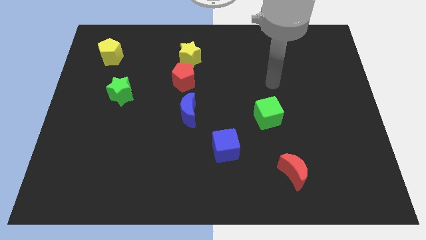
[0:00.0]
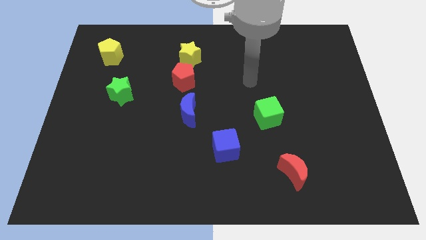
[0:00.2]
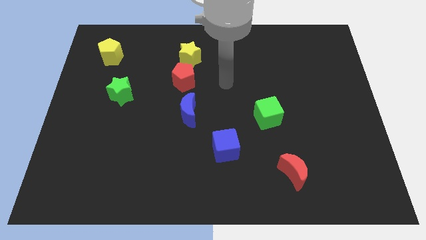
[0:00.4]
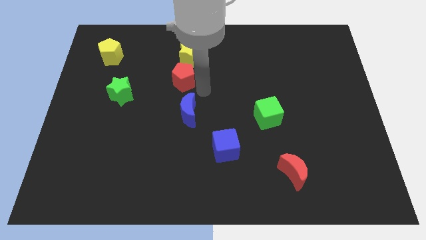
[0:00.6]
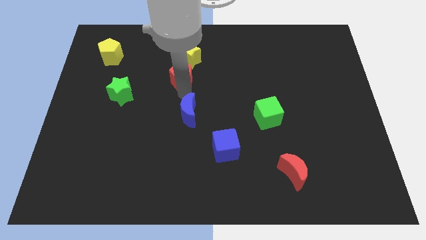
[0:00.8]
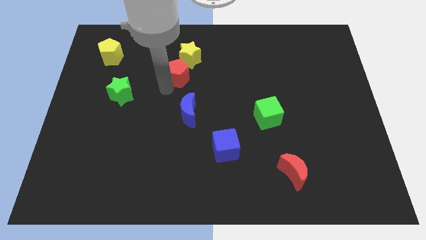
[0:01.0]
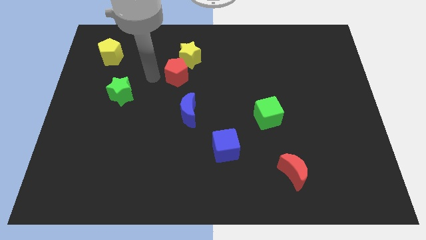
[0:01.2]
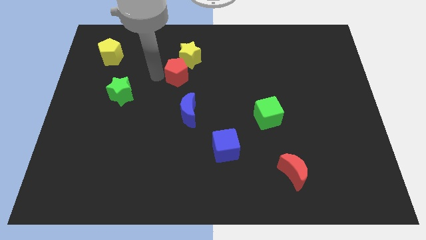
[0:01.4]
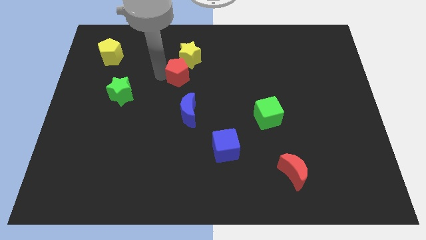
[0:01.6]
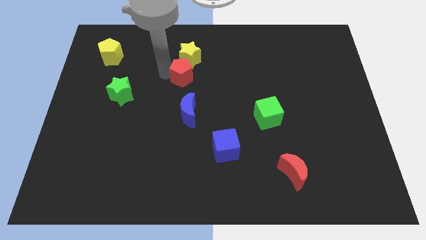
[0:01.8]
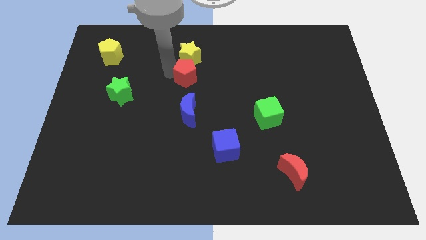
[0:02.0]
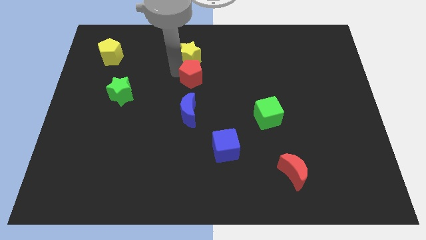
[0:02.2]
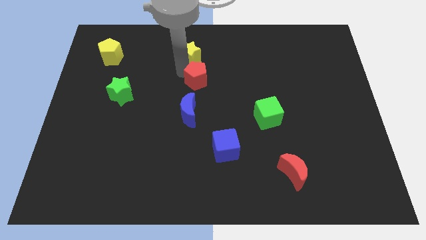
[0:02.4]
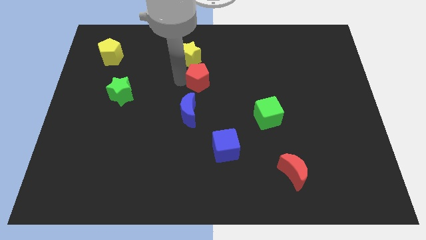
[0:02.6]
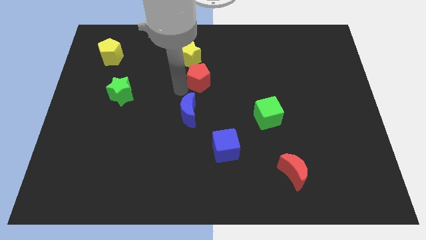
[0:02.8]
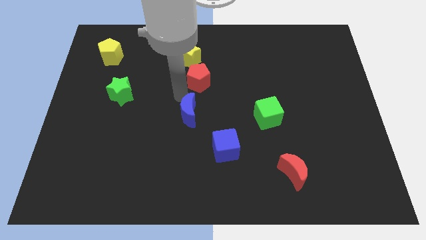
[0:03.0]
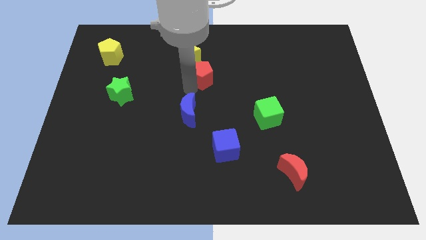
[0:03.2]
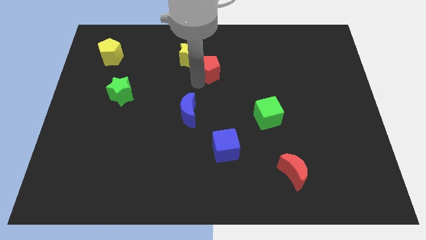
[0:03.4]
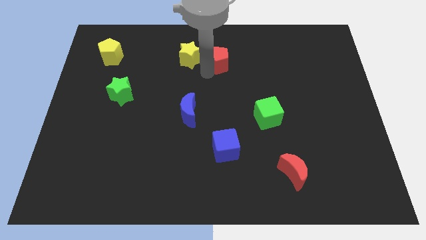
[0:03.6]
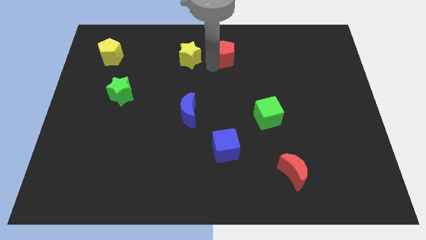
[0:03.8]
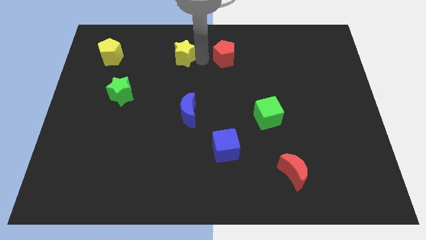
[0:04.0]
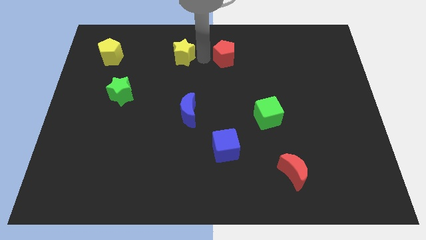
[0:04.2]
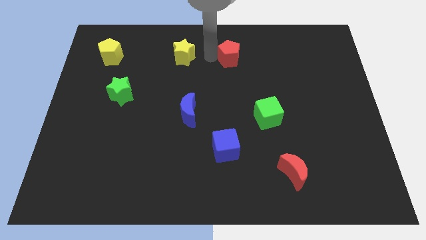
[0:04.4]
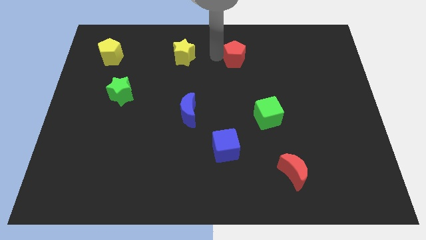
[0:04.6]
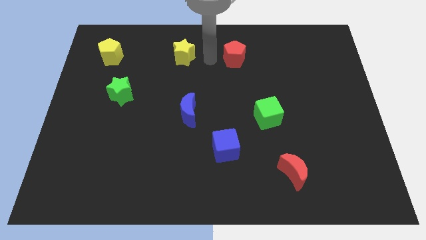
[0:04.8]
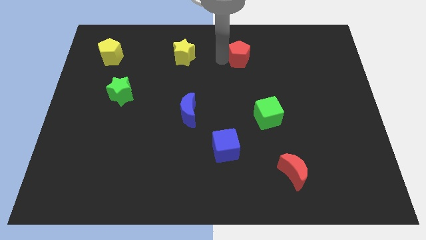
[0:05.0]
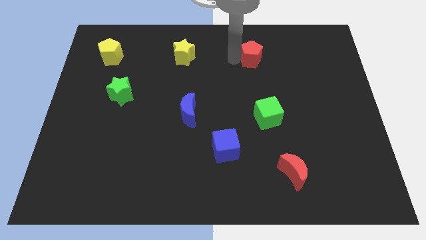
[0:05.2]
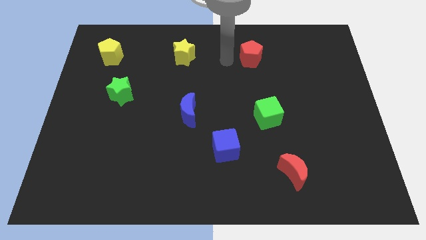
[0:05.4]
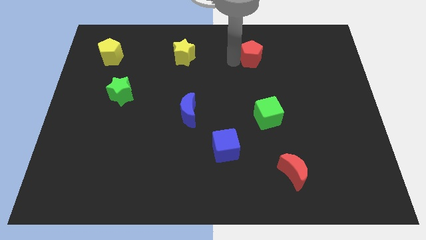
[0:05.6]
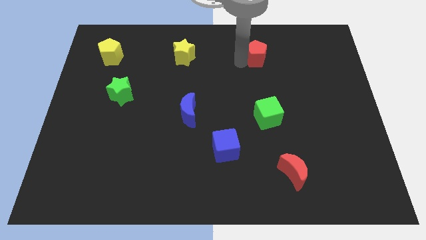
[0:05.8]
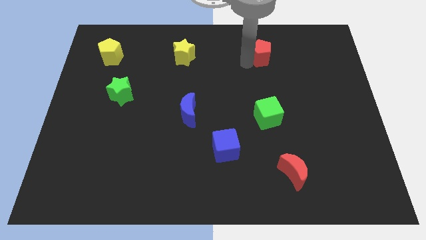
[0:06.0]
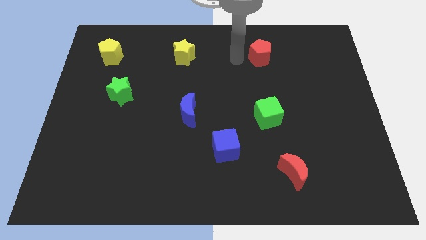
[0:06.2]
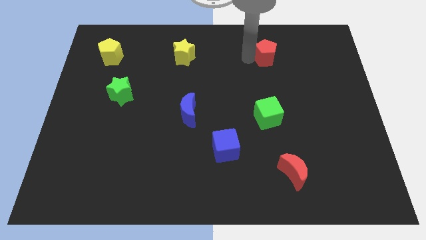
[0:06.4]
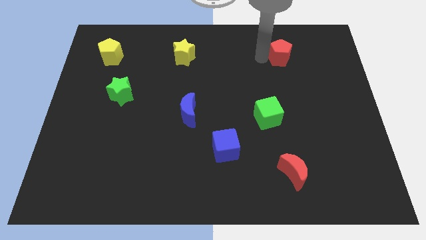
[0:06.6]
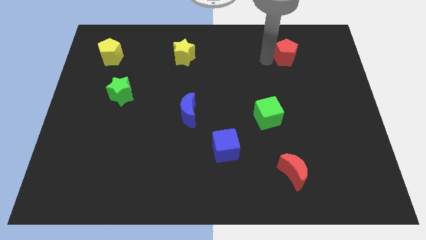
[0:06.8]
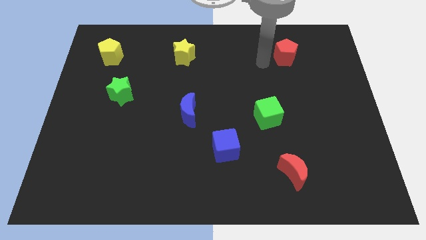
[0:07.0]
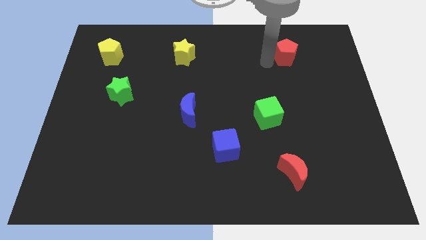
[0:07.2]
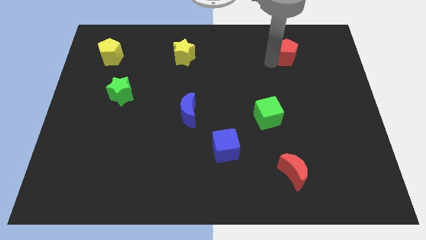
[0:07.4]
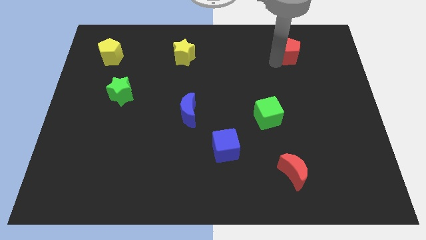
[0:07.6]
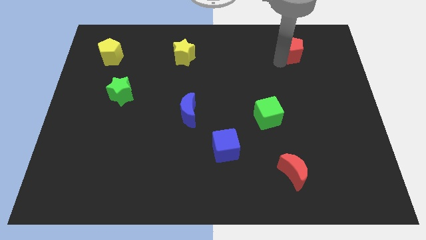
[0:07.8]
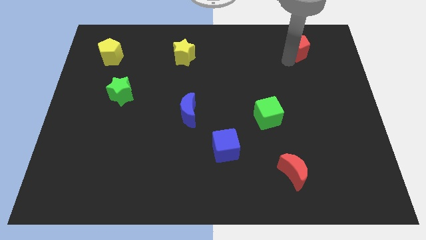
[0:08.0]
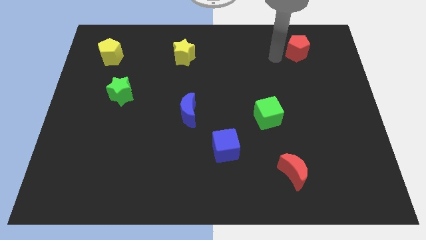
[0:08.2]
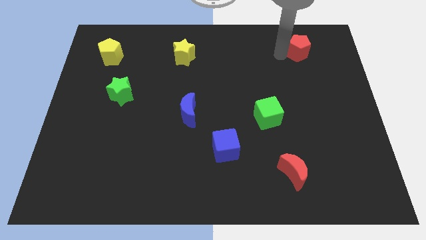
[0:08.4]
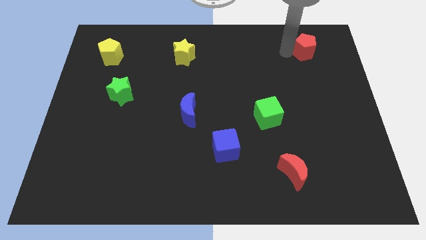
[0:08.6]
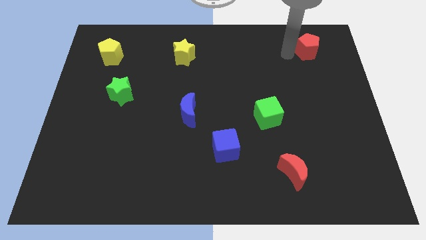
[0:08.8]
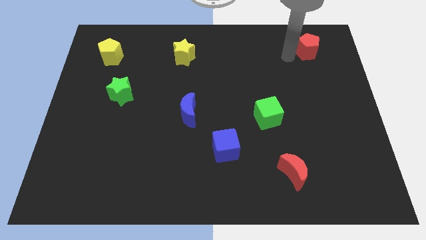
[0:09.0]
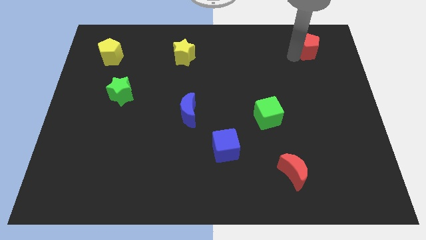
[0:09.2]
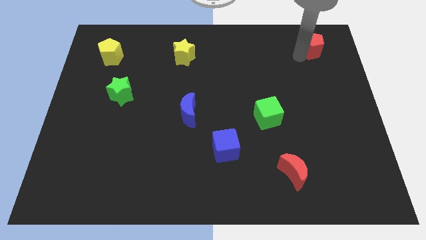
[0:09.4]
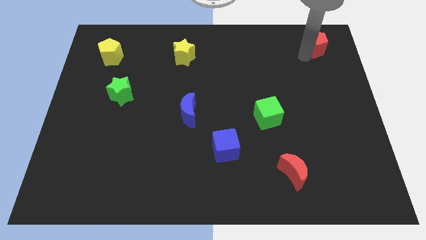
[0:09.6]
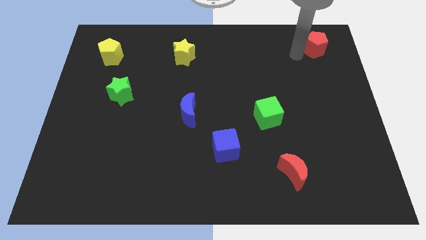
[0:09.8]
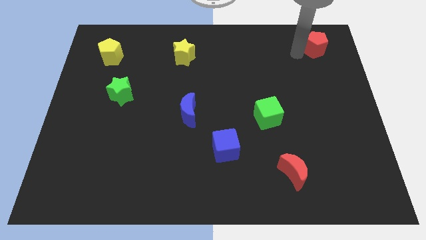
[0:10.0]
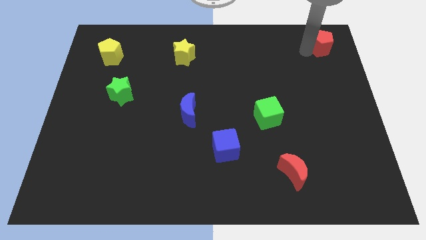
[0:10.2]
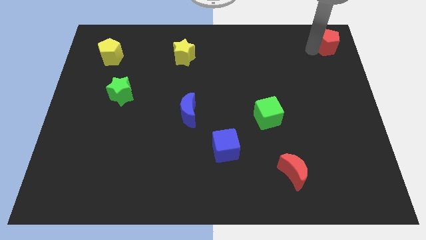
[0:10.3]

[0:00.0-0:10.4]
slide the red pentagon to the top right corner

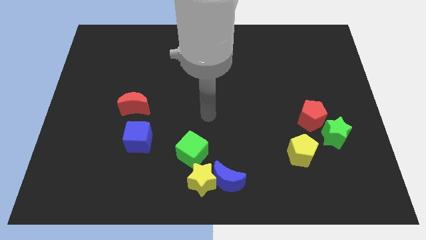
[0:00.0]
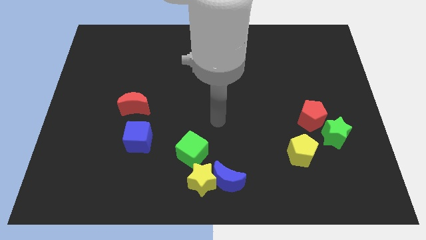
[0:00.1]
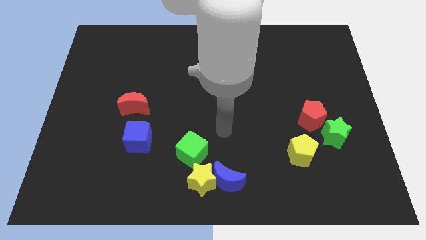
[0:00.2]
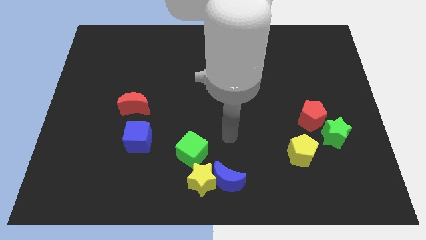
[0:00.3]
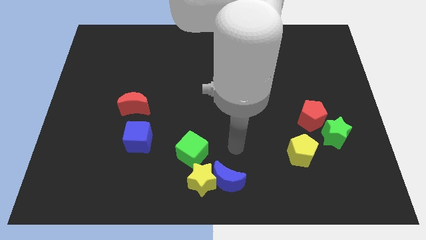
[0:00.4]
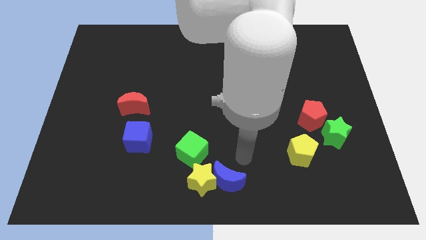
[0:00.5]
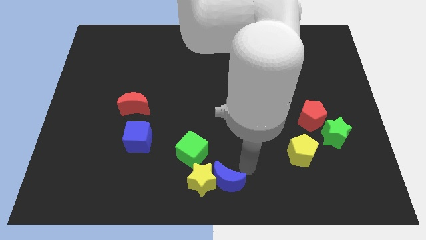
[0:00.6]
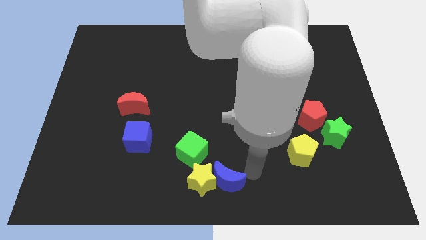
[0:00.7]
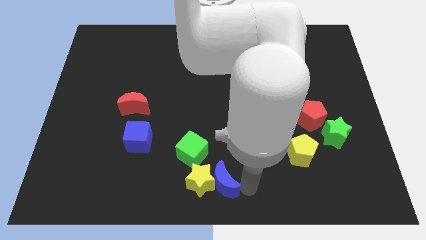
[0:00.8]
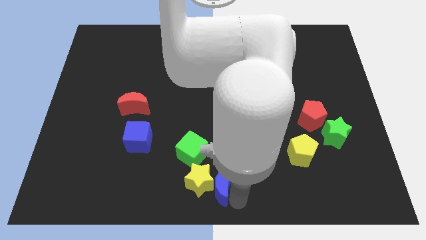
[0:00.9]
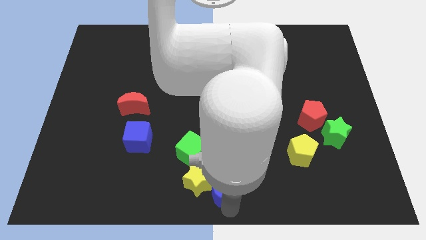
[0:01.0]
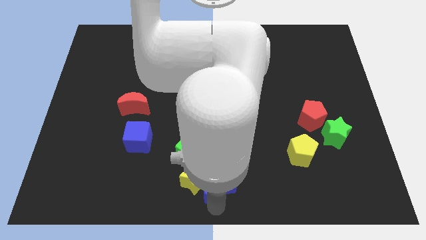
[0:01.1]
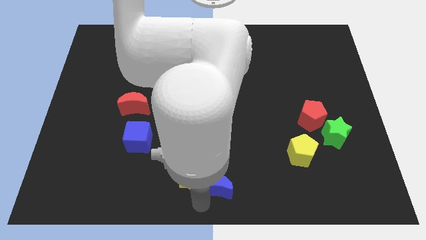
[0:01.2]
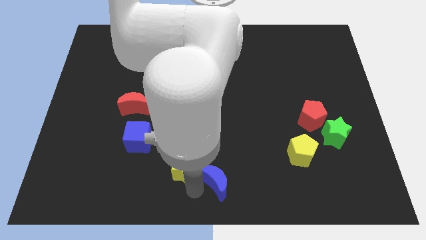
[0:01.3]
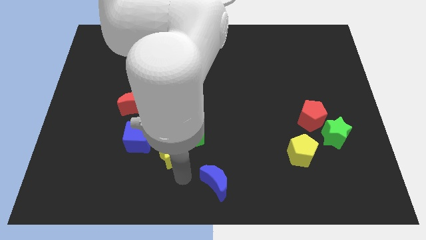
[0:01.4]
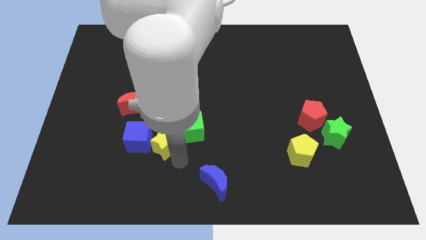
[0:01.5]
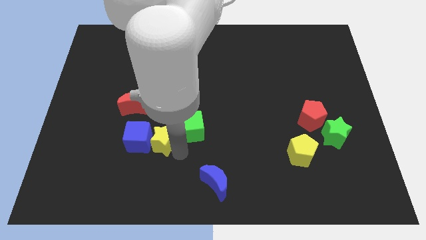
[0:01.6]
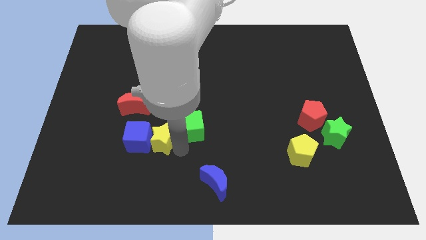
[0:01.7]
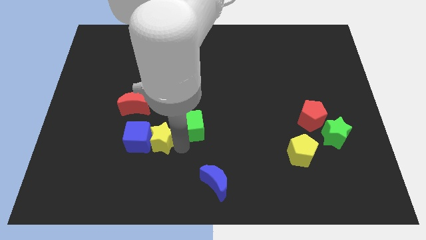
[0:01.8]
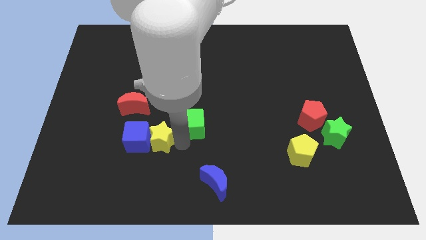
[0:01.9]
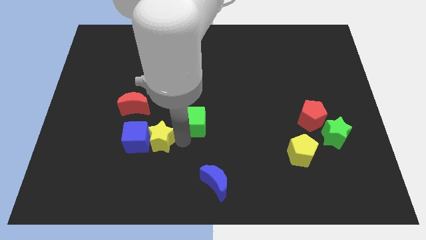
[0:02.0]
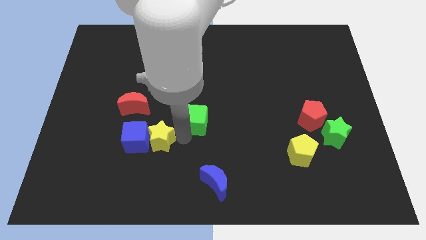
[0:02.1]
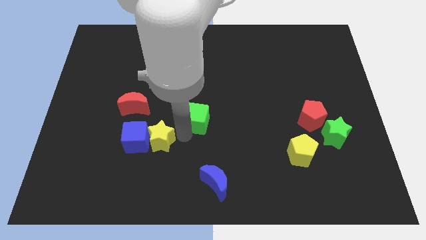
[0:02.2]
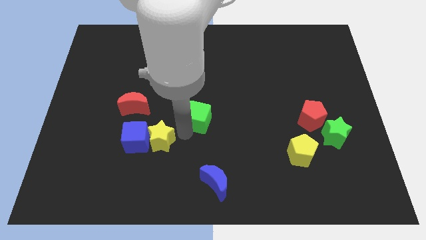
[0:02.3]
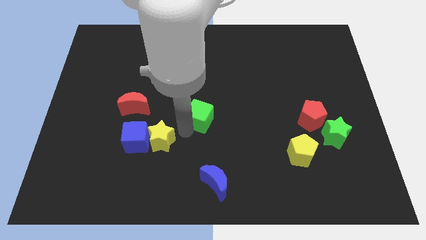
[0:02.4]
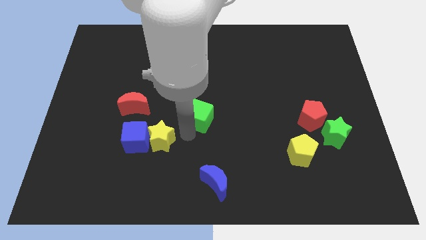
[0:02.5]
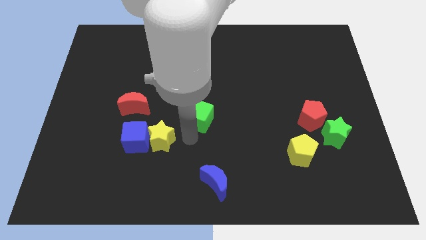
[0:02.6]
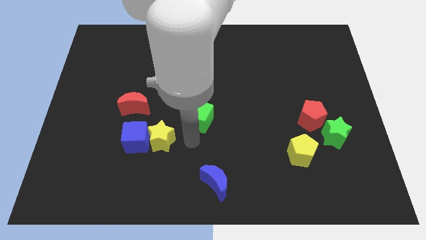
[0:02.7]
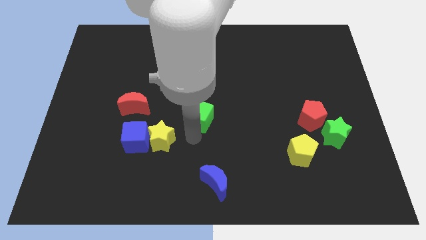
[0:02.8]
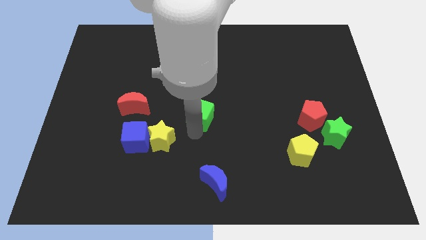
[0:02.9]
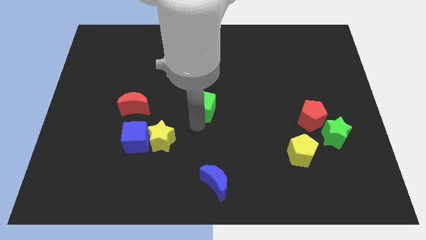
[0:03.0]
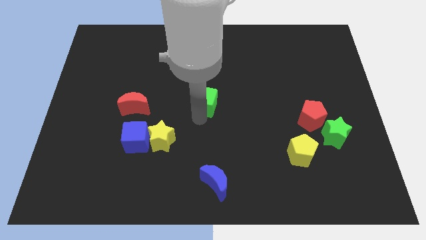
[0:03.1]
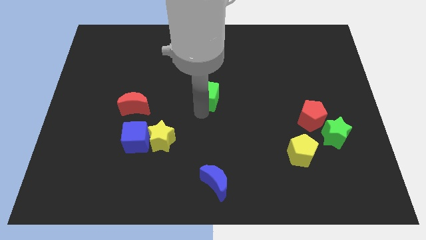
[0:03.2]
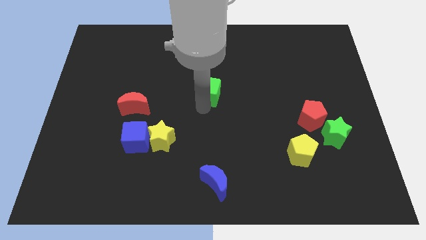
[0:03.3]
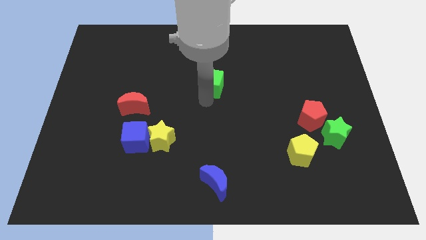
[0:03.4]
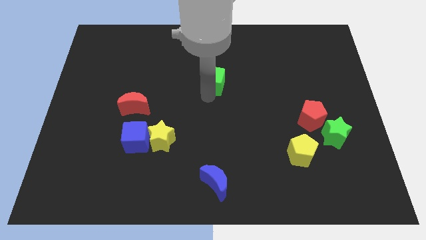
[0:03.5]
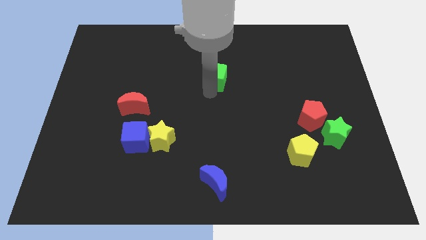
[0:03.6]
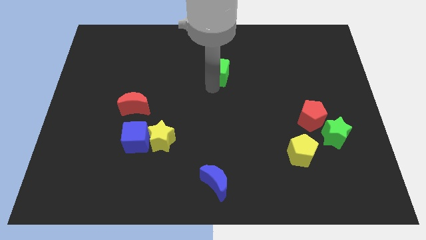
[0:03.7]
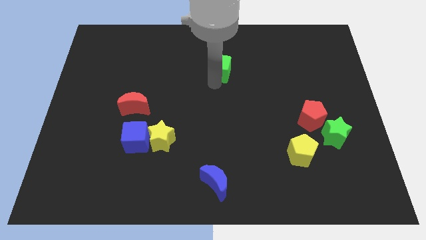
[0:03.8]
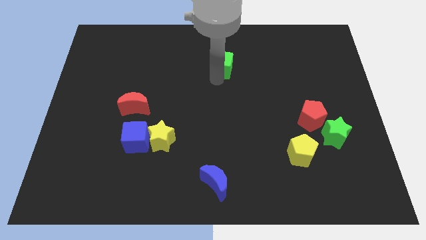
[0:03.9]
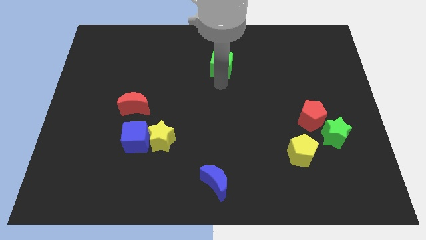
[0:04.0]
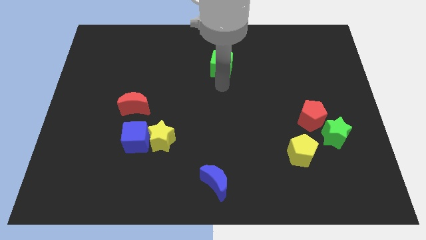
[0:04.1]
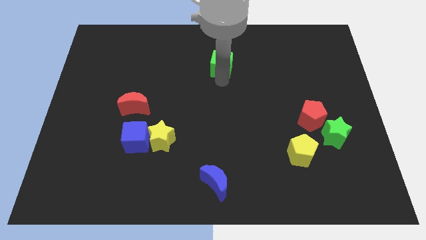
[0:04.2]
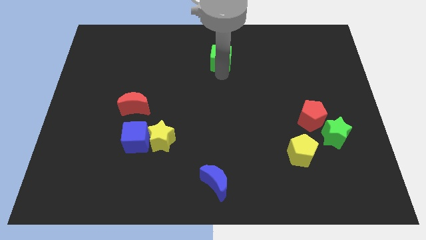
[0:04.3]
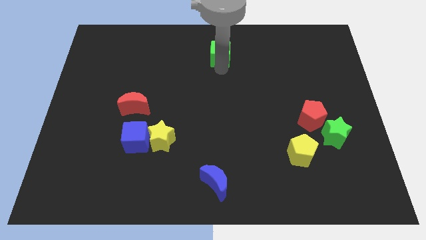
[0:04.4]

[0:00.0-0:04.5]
move the green cube to the top side
